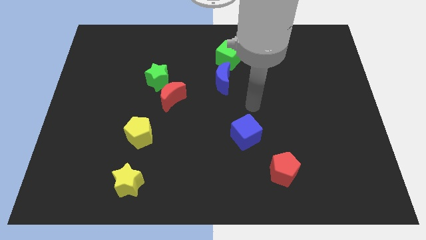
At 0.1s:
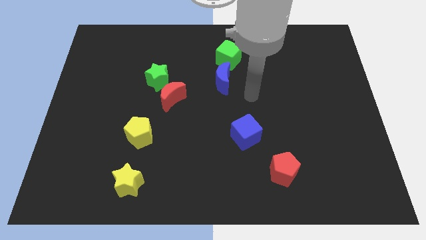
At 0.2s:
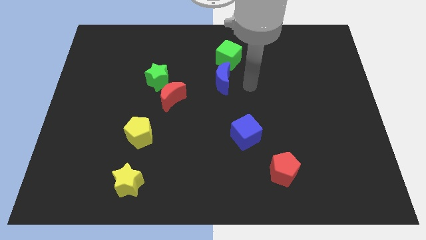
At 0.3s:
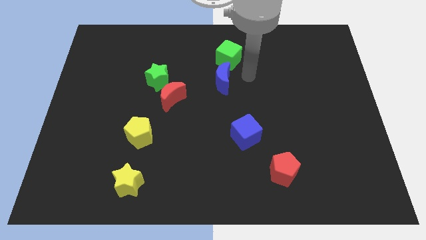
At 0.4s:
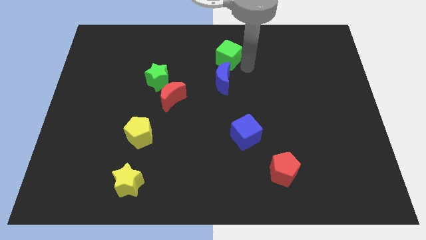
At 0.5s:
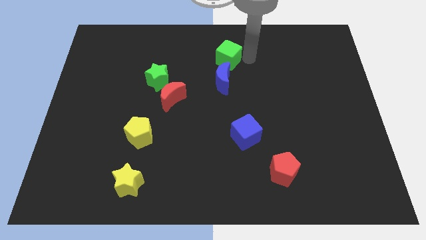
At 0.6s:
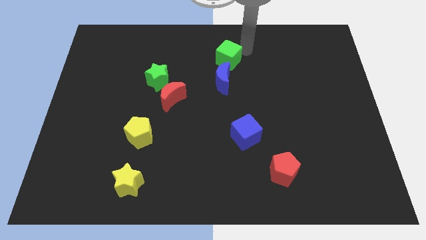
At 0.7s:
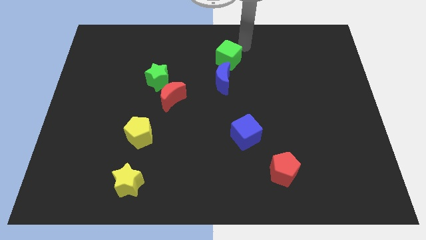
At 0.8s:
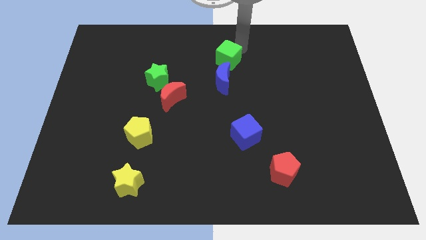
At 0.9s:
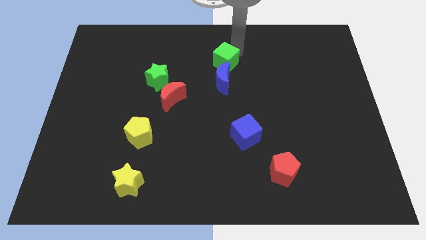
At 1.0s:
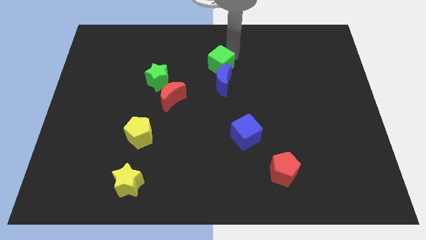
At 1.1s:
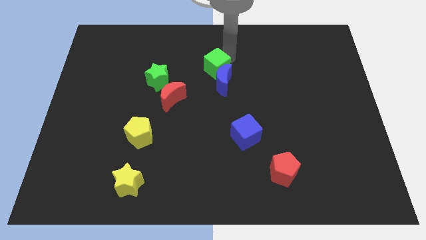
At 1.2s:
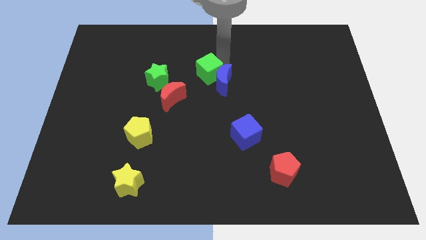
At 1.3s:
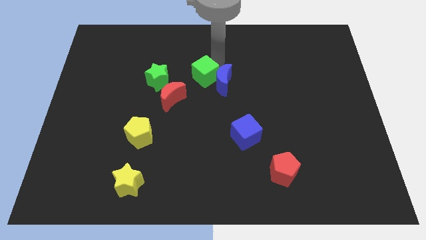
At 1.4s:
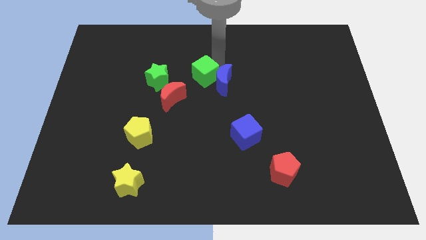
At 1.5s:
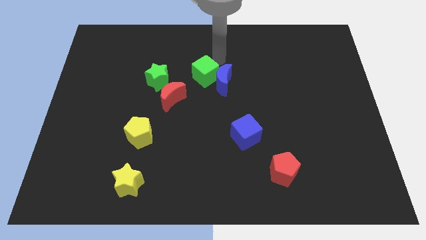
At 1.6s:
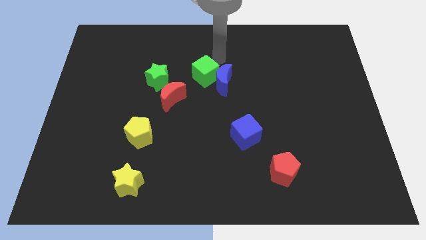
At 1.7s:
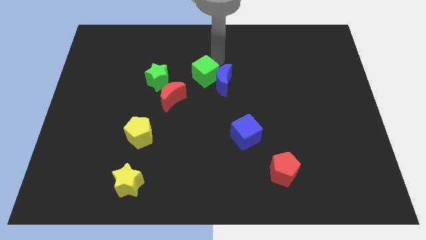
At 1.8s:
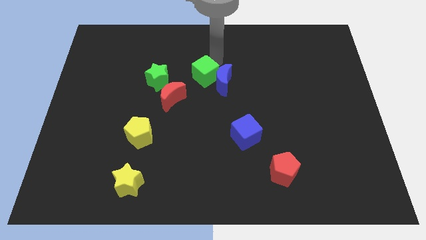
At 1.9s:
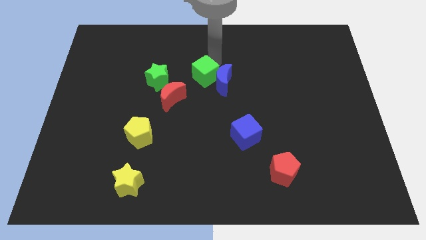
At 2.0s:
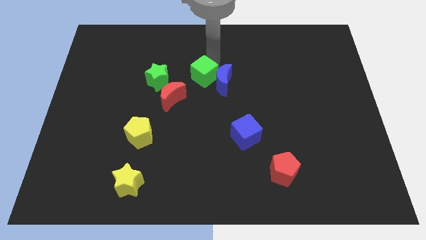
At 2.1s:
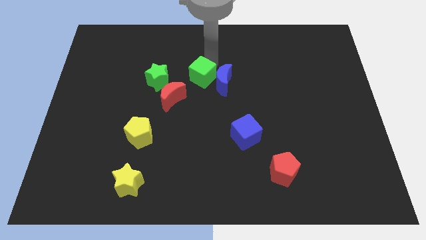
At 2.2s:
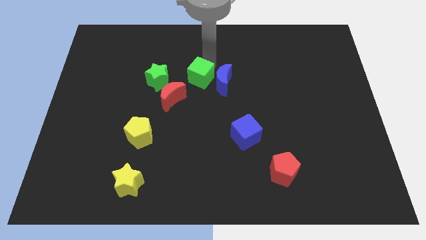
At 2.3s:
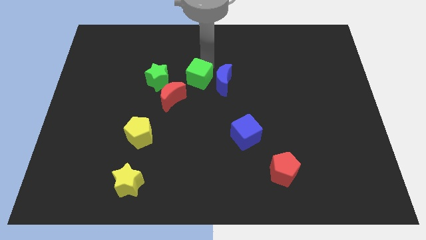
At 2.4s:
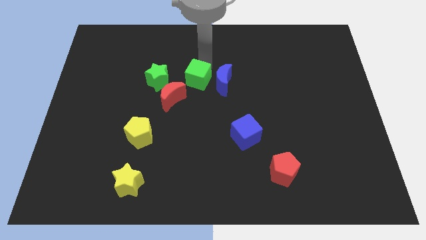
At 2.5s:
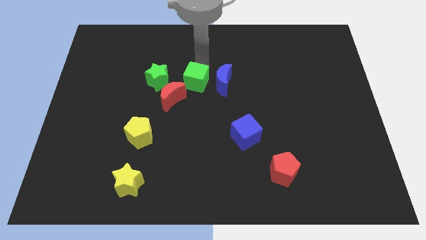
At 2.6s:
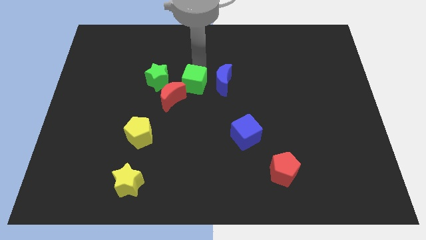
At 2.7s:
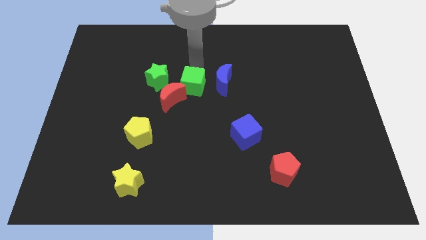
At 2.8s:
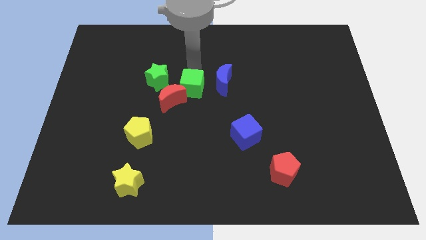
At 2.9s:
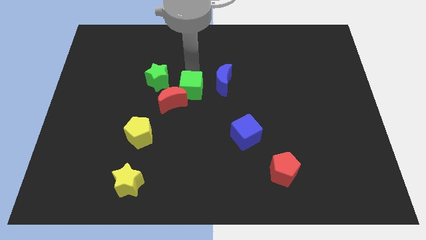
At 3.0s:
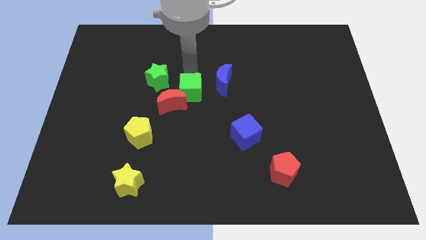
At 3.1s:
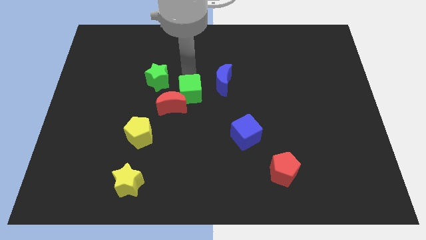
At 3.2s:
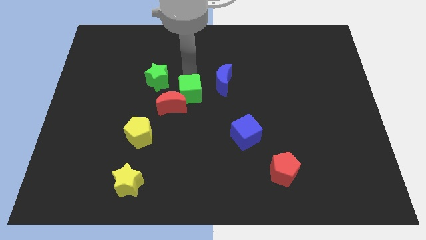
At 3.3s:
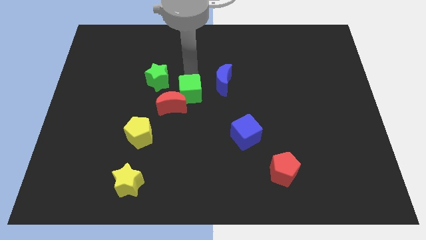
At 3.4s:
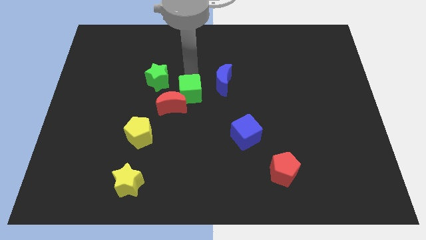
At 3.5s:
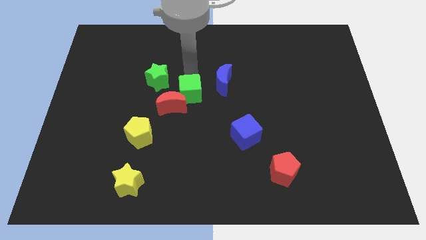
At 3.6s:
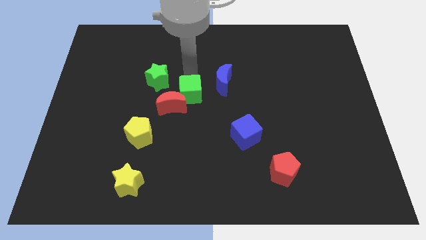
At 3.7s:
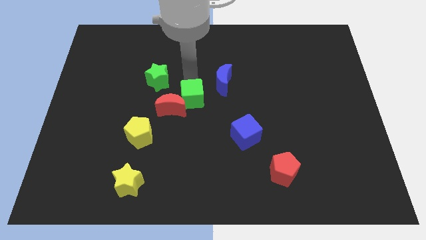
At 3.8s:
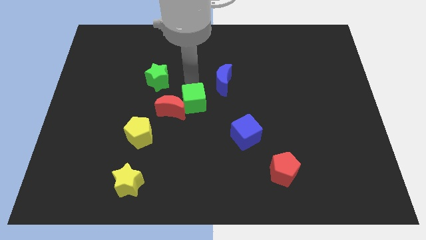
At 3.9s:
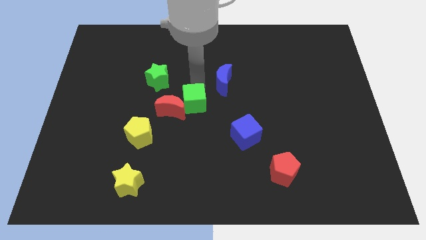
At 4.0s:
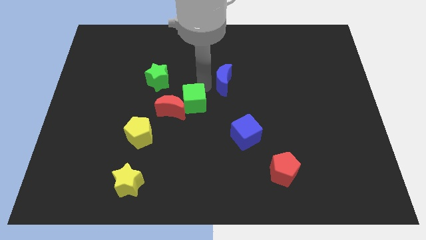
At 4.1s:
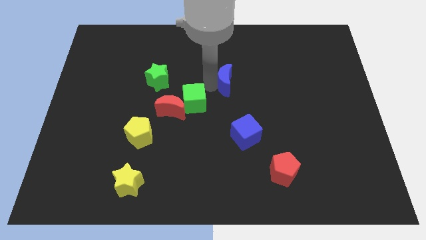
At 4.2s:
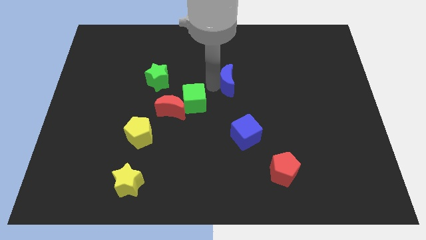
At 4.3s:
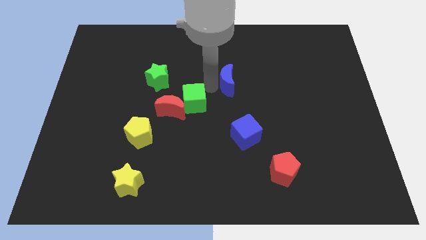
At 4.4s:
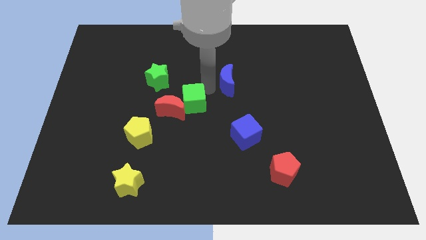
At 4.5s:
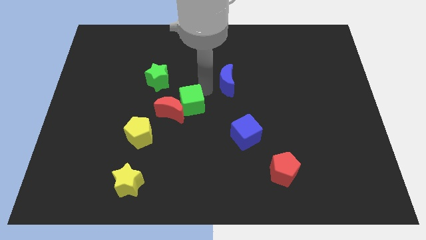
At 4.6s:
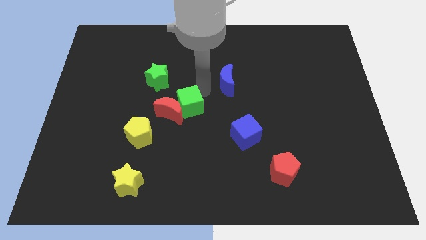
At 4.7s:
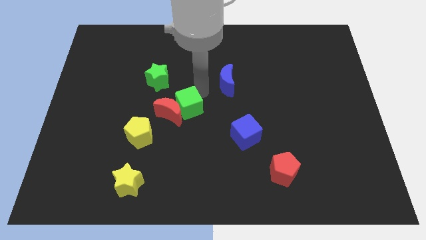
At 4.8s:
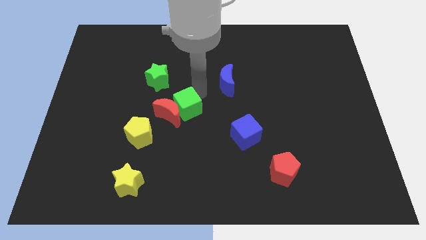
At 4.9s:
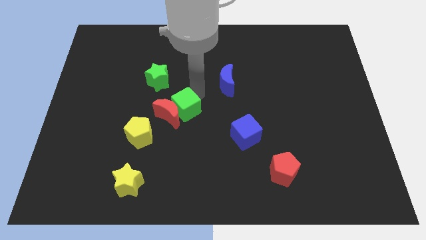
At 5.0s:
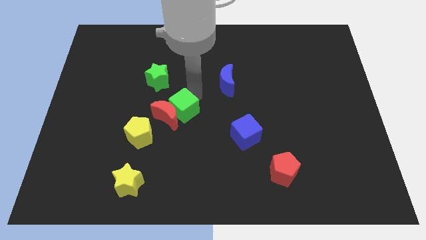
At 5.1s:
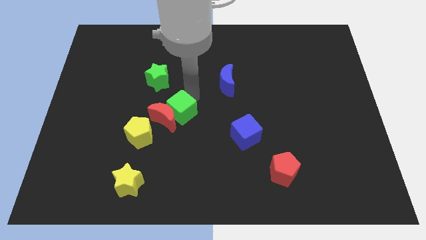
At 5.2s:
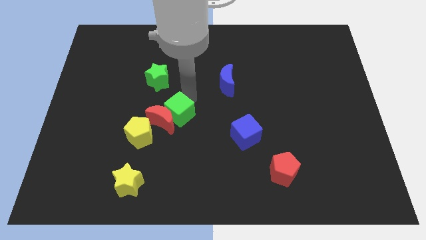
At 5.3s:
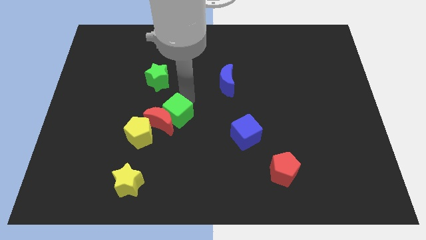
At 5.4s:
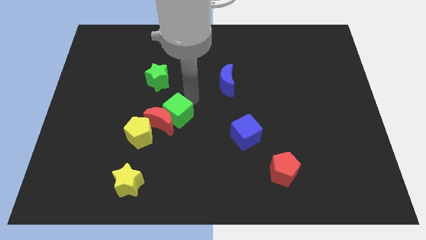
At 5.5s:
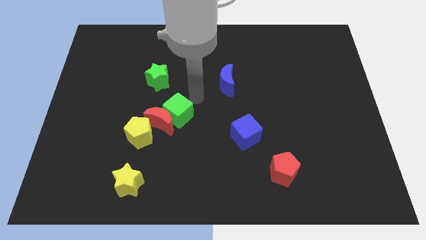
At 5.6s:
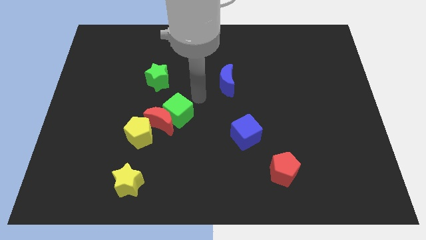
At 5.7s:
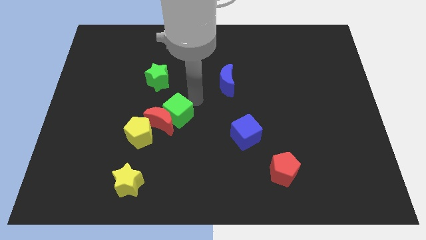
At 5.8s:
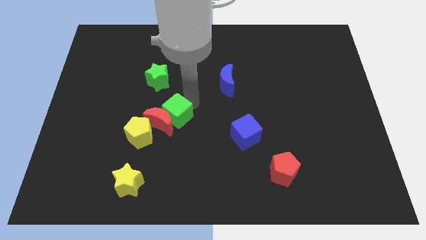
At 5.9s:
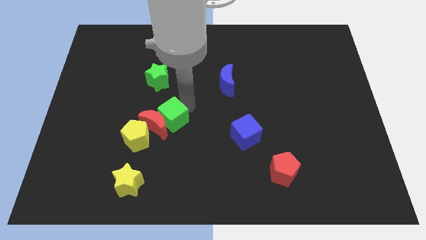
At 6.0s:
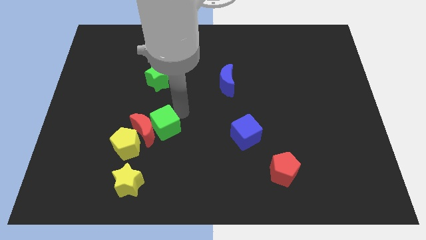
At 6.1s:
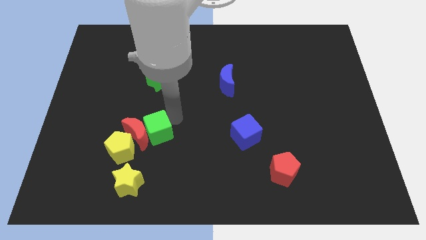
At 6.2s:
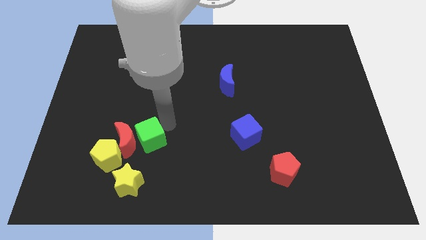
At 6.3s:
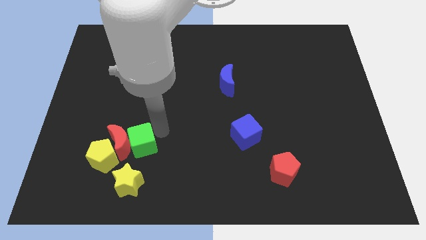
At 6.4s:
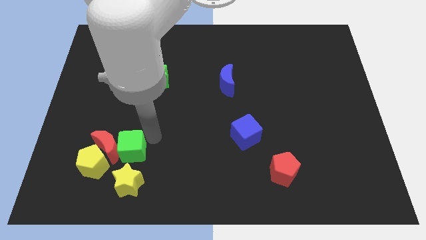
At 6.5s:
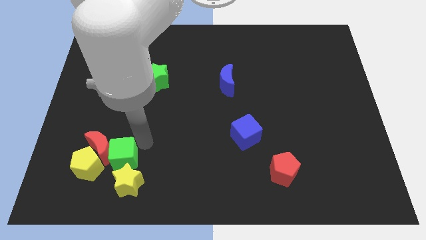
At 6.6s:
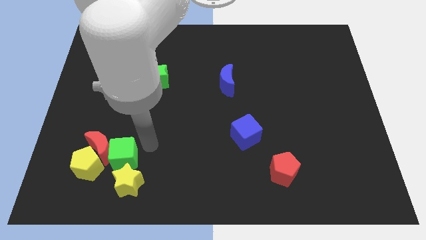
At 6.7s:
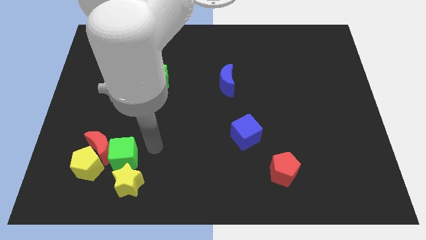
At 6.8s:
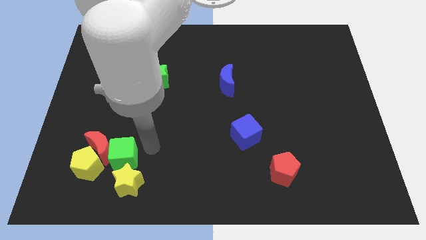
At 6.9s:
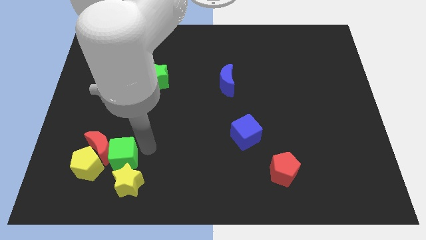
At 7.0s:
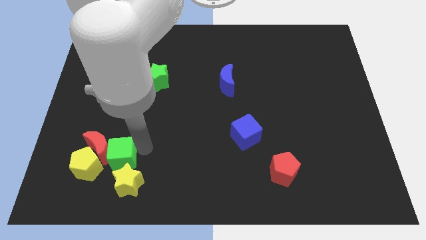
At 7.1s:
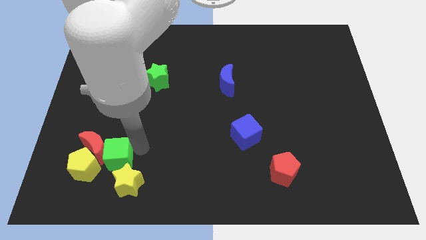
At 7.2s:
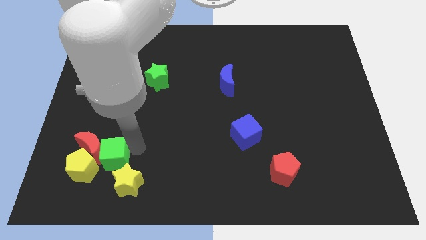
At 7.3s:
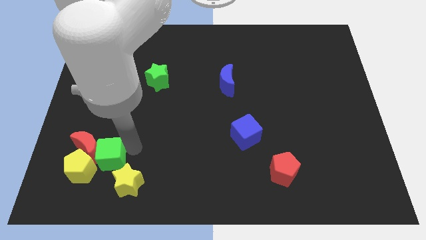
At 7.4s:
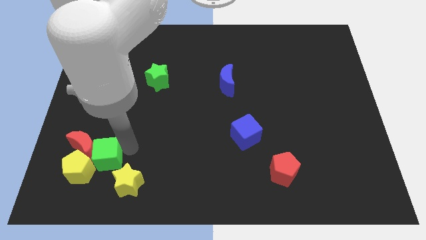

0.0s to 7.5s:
slide the green cube close to the yellow pentagon
